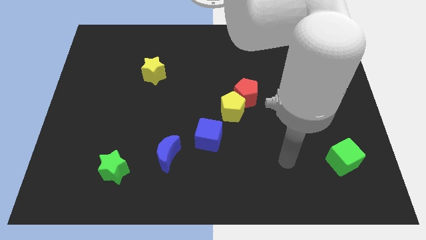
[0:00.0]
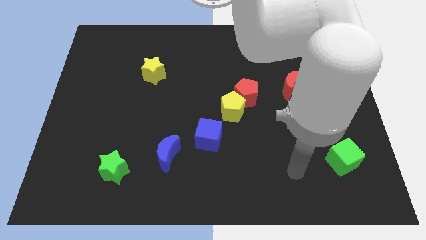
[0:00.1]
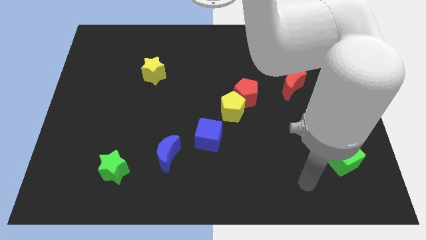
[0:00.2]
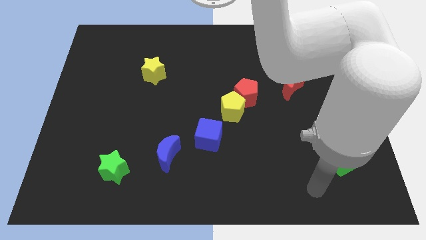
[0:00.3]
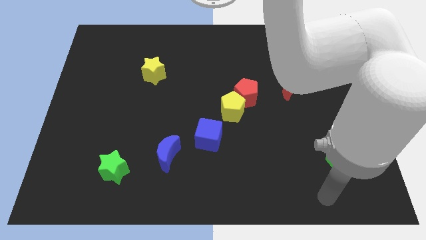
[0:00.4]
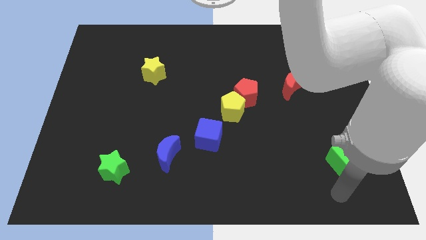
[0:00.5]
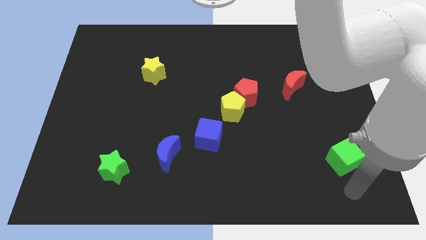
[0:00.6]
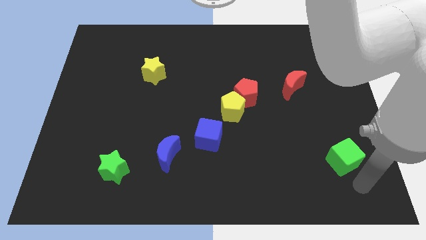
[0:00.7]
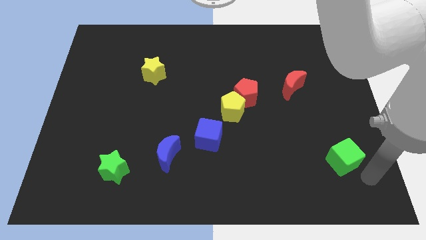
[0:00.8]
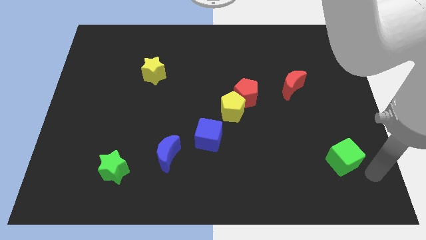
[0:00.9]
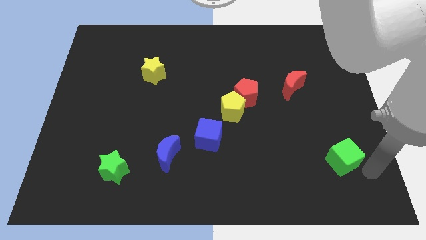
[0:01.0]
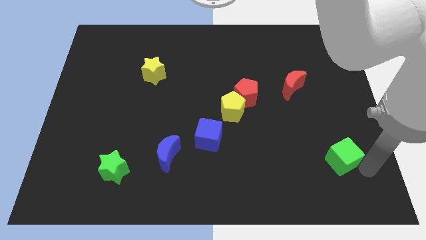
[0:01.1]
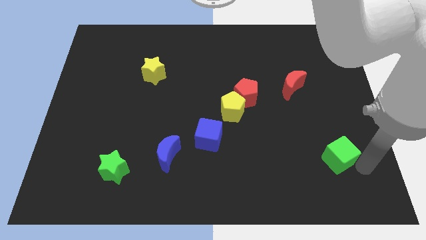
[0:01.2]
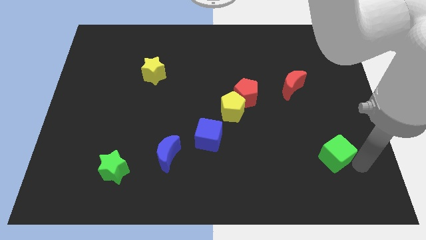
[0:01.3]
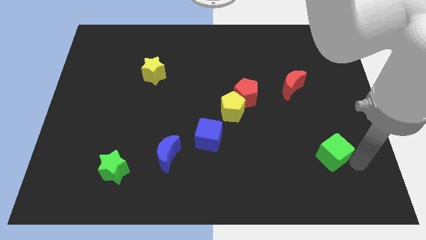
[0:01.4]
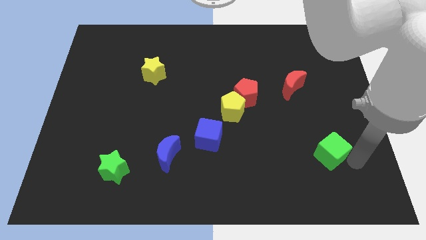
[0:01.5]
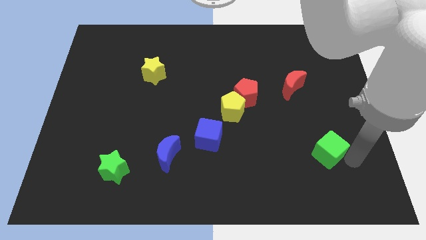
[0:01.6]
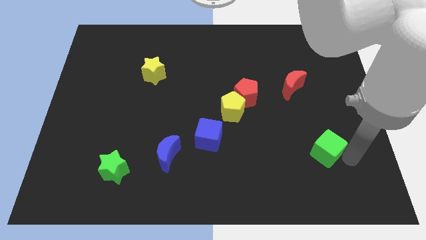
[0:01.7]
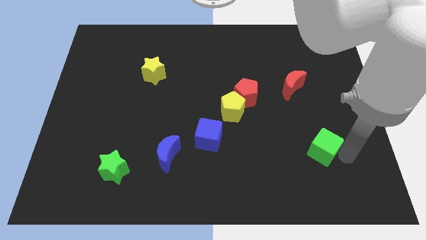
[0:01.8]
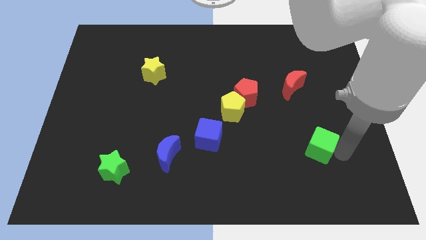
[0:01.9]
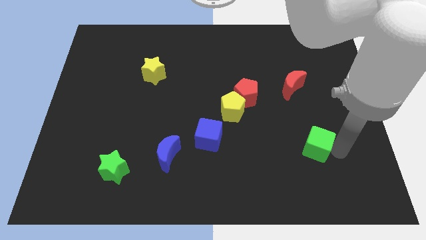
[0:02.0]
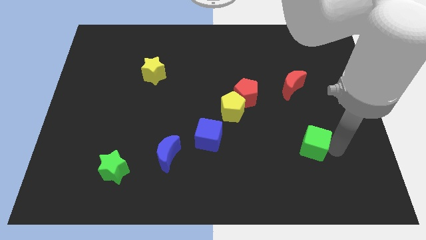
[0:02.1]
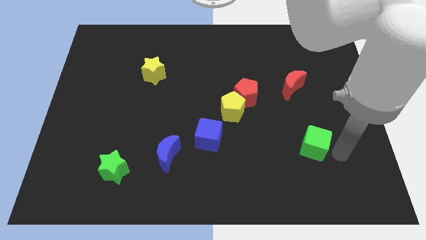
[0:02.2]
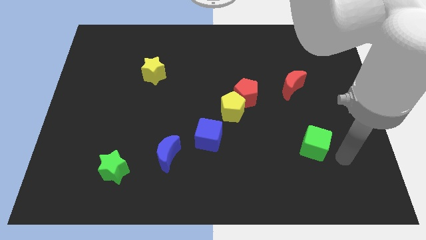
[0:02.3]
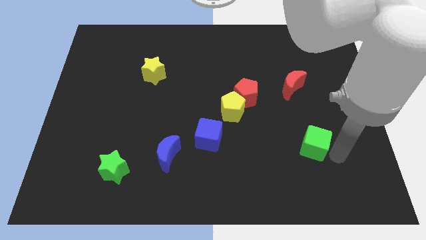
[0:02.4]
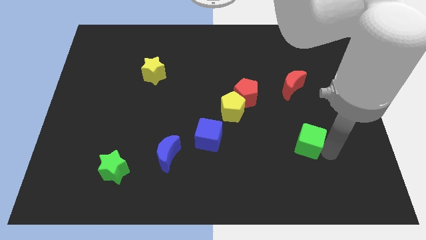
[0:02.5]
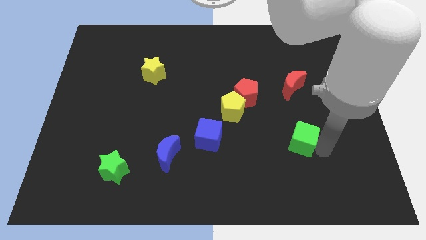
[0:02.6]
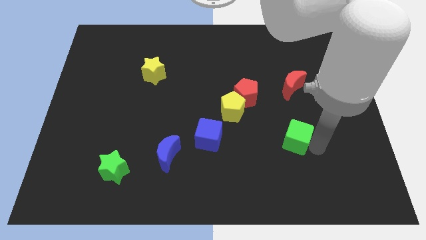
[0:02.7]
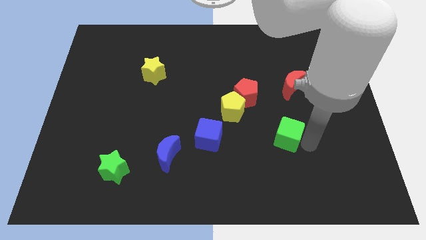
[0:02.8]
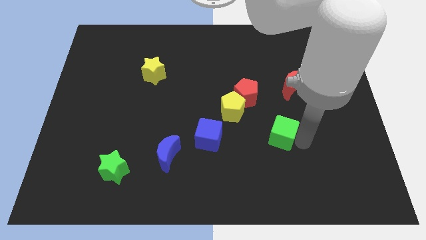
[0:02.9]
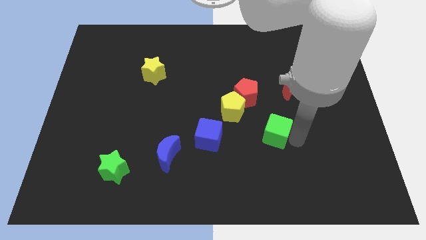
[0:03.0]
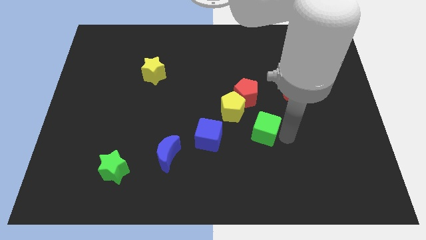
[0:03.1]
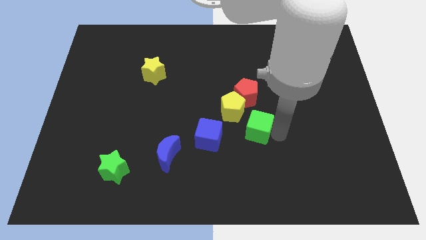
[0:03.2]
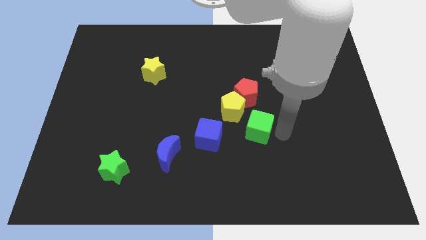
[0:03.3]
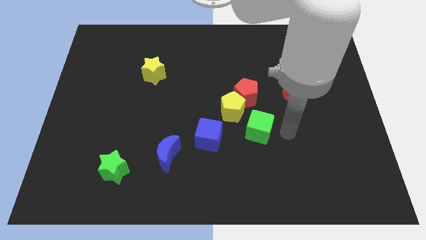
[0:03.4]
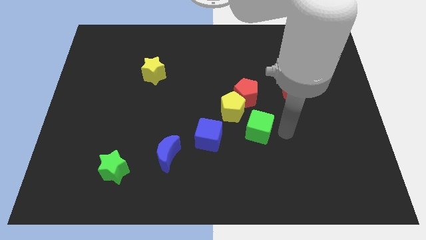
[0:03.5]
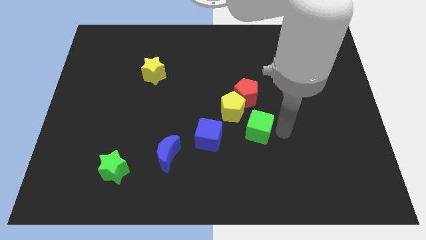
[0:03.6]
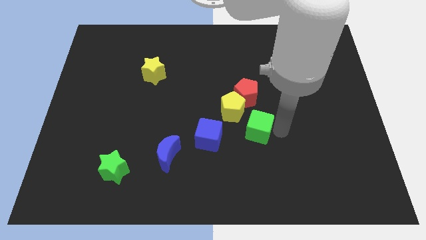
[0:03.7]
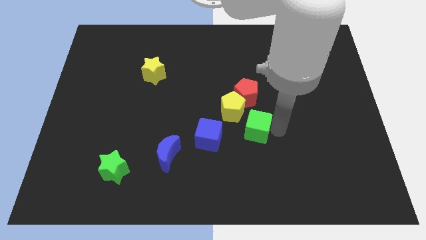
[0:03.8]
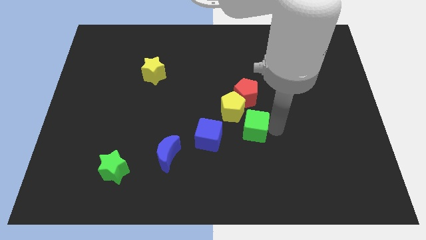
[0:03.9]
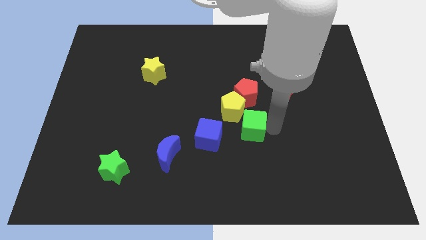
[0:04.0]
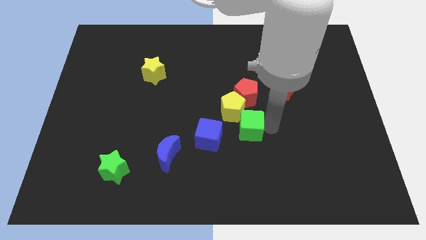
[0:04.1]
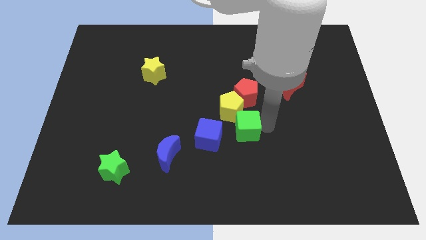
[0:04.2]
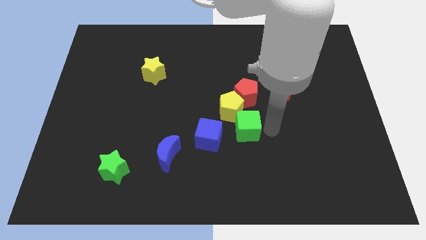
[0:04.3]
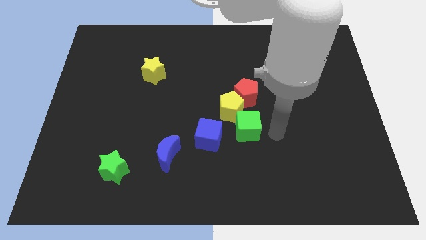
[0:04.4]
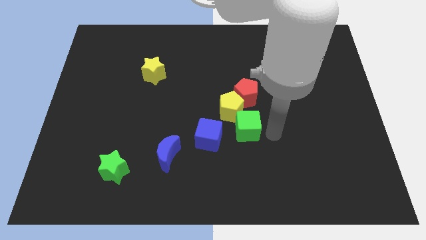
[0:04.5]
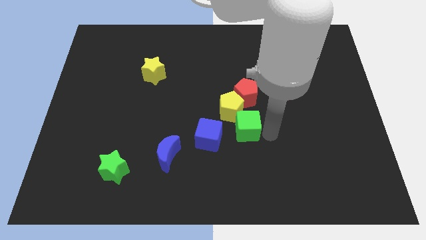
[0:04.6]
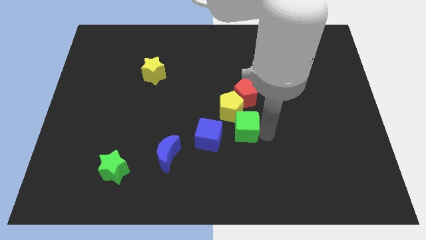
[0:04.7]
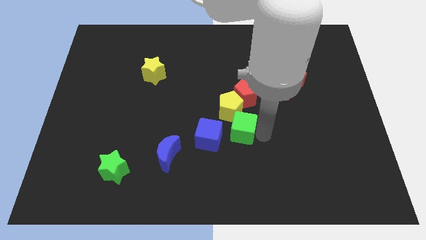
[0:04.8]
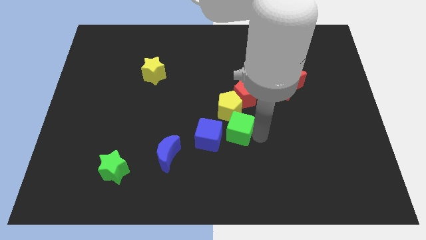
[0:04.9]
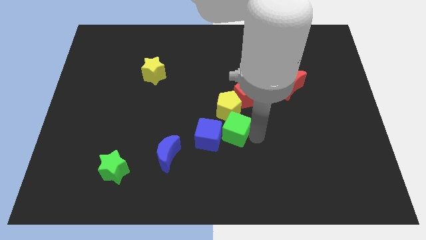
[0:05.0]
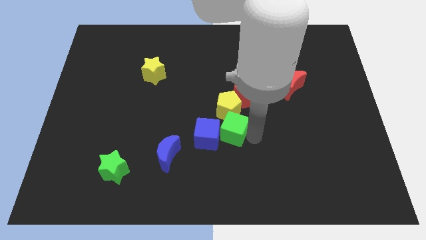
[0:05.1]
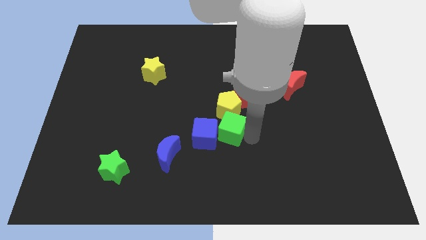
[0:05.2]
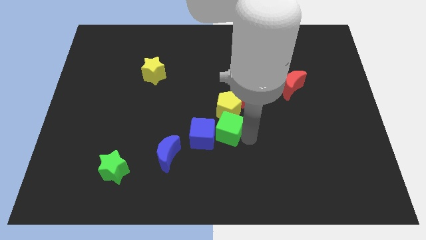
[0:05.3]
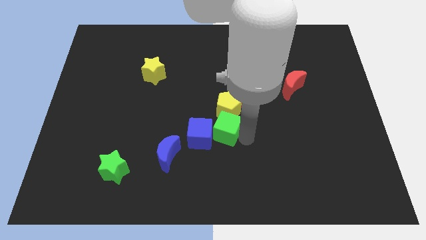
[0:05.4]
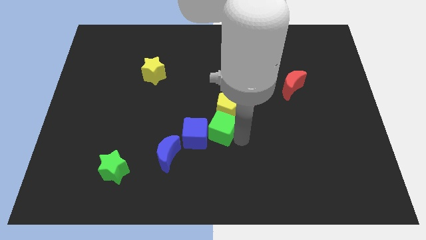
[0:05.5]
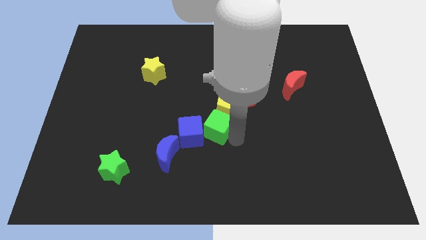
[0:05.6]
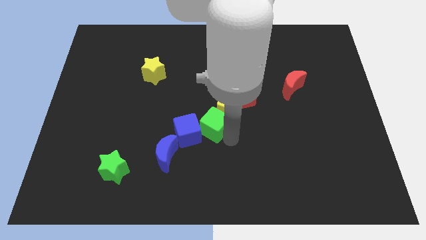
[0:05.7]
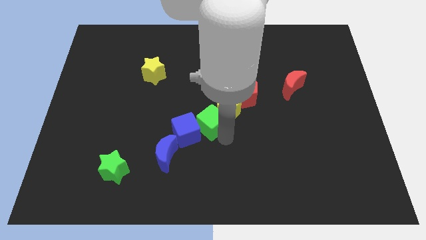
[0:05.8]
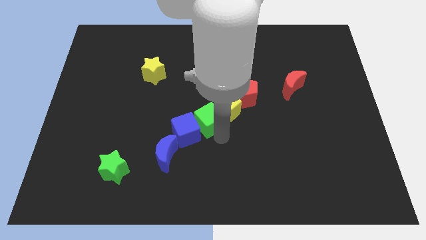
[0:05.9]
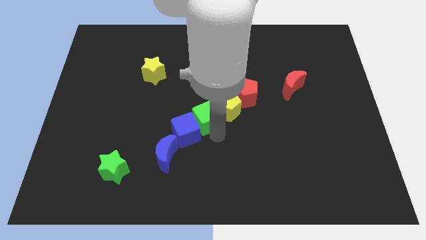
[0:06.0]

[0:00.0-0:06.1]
put the green cube above the blue cube
